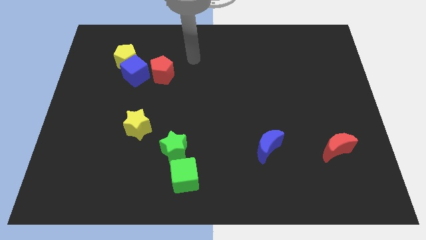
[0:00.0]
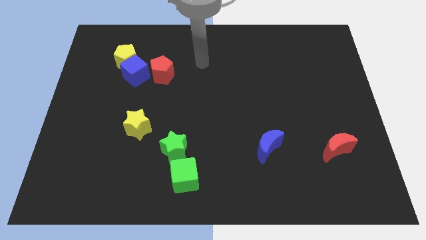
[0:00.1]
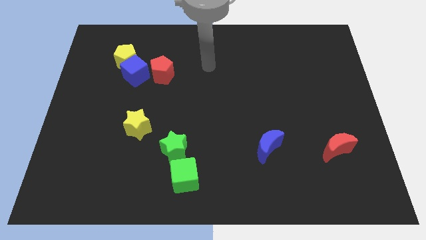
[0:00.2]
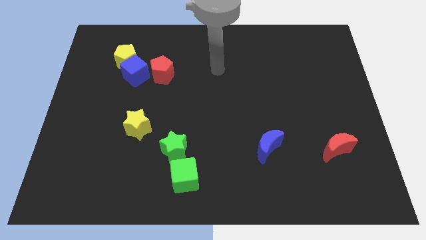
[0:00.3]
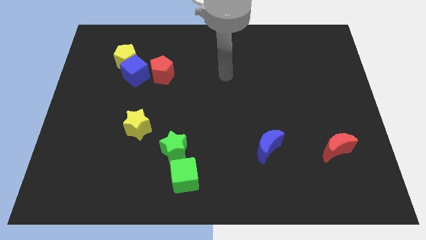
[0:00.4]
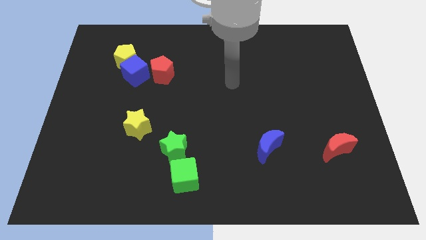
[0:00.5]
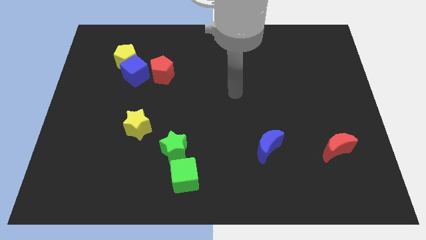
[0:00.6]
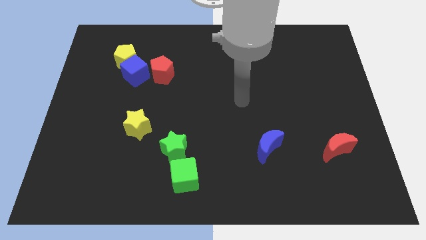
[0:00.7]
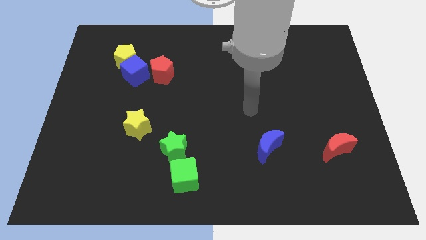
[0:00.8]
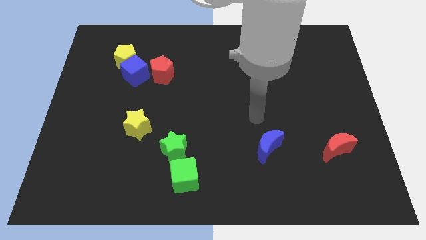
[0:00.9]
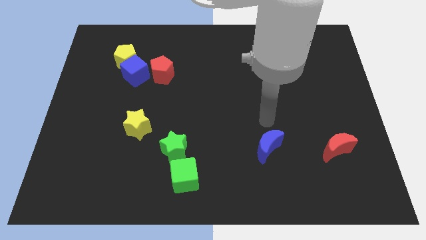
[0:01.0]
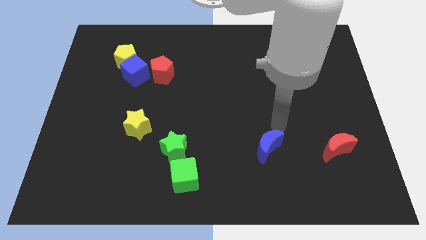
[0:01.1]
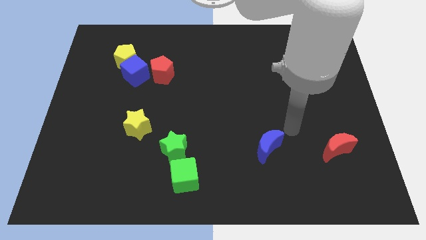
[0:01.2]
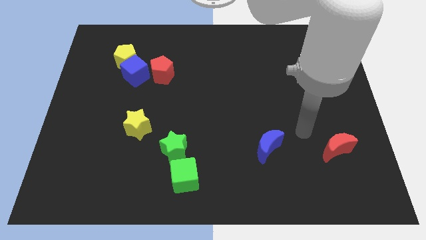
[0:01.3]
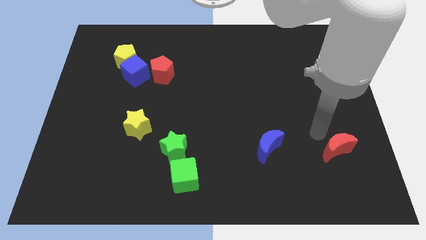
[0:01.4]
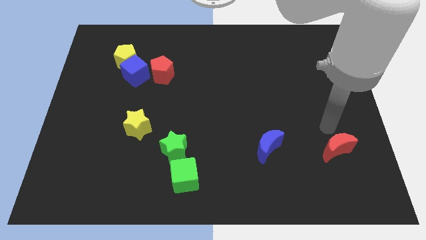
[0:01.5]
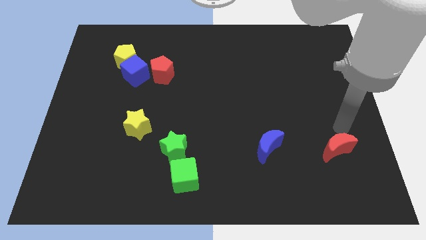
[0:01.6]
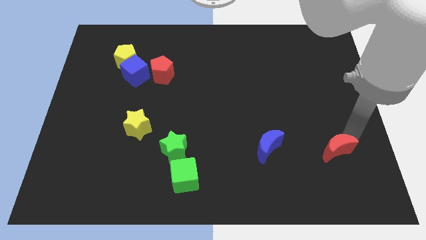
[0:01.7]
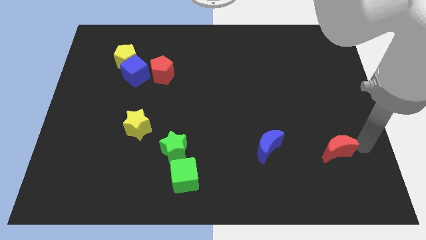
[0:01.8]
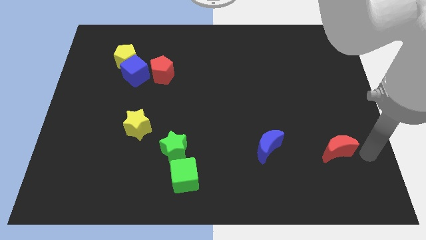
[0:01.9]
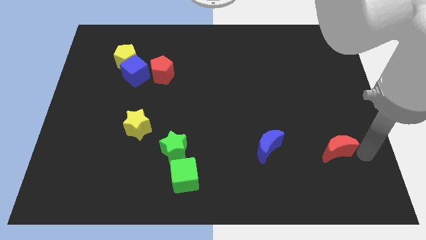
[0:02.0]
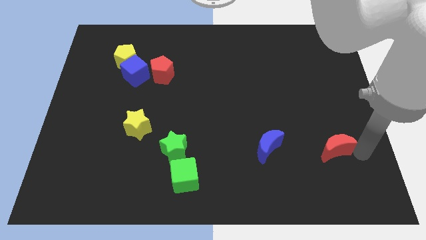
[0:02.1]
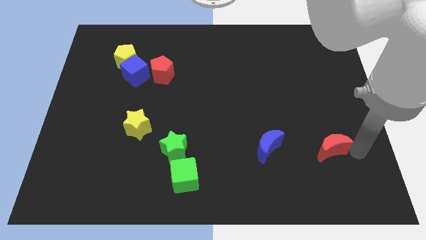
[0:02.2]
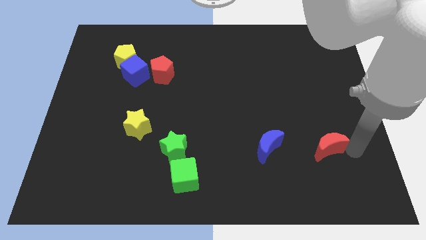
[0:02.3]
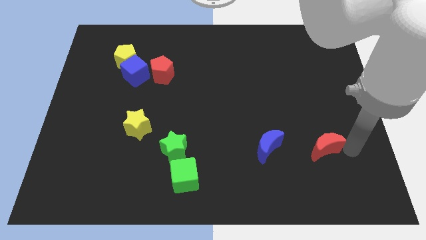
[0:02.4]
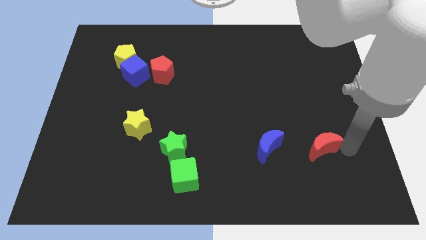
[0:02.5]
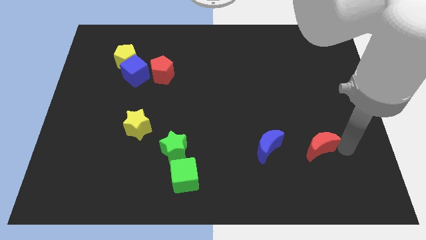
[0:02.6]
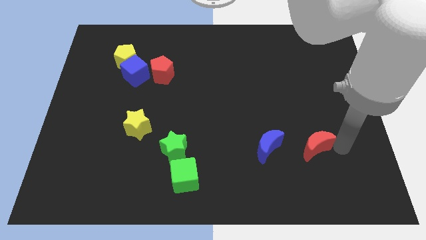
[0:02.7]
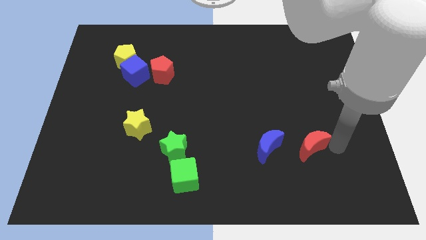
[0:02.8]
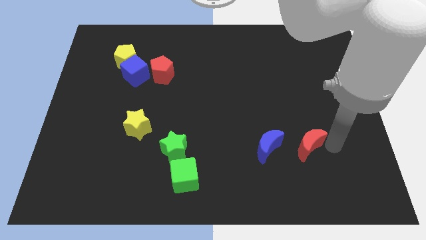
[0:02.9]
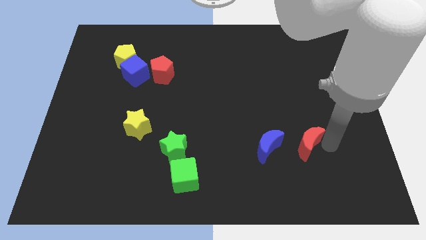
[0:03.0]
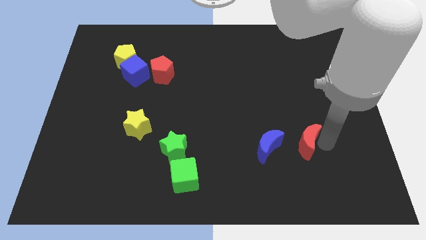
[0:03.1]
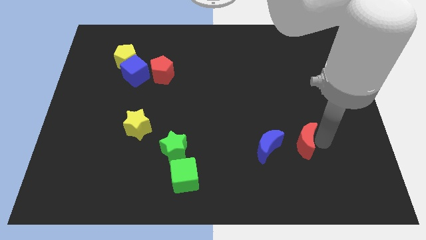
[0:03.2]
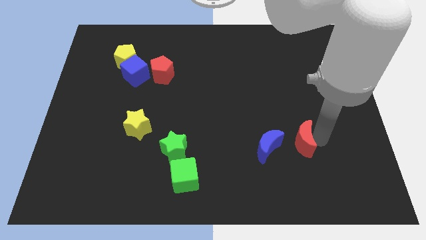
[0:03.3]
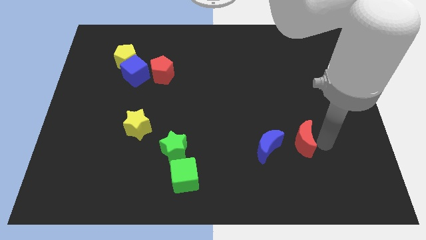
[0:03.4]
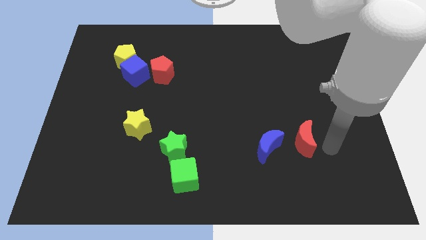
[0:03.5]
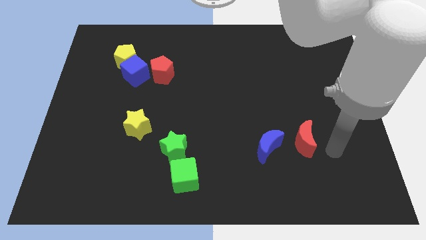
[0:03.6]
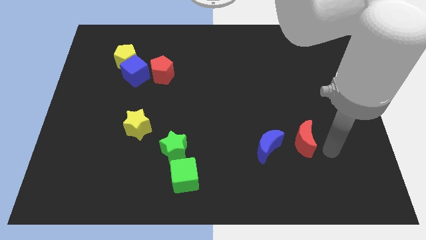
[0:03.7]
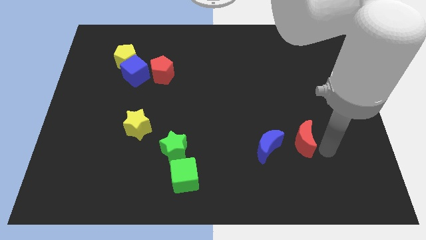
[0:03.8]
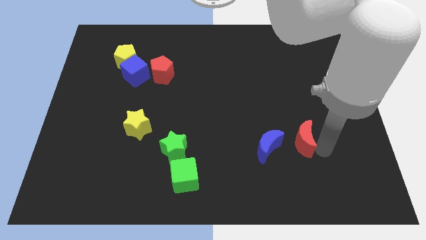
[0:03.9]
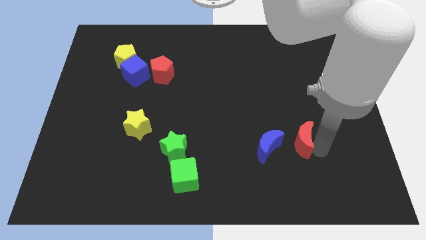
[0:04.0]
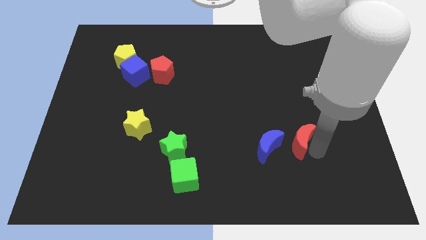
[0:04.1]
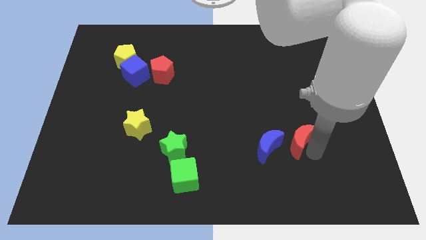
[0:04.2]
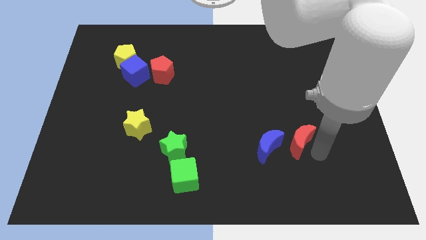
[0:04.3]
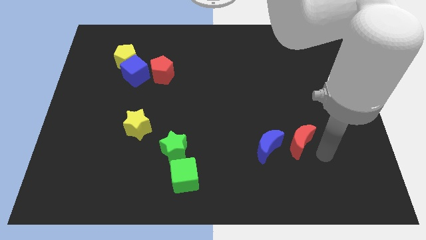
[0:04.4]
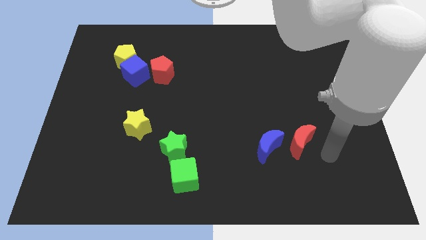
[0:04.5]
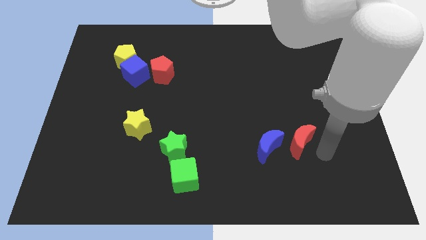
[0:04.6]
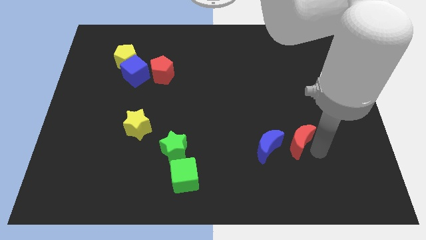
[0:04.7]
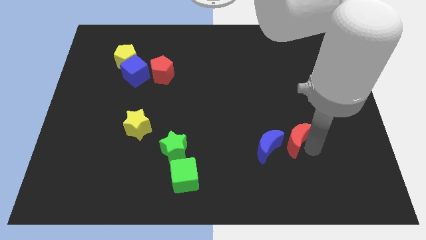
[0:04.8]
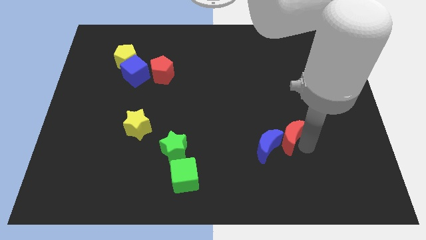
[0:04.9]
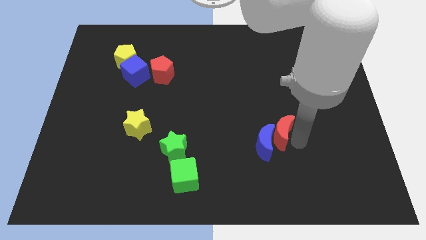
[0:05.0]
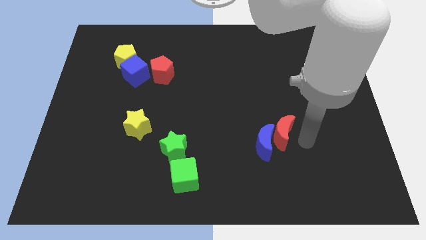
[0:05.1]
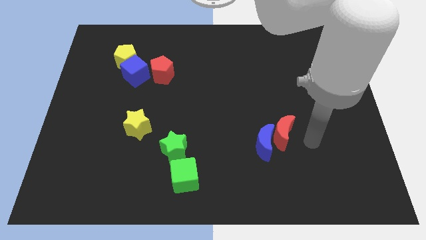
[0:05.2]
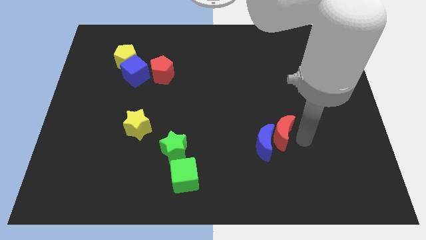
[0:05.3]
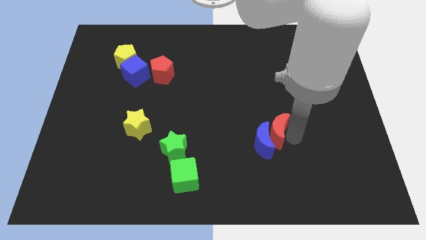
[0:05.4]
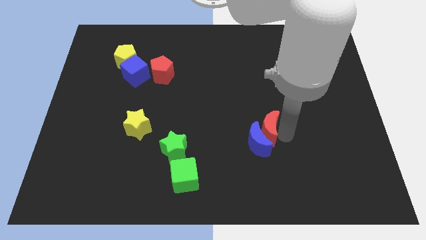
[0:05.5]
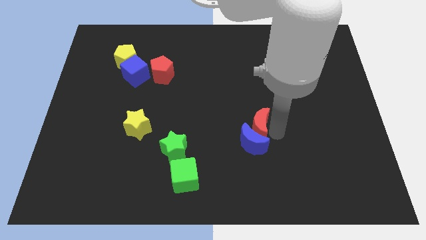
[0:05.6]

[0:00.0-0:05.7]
slide the red moon diagonally up and to the left of the blue moon

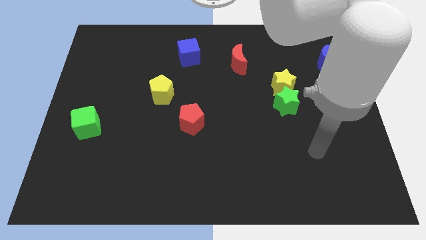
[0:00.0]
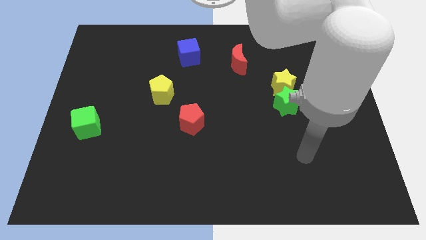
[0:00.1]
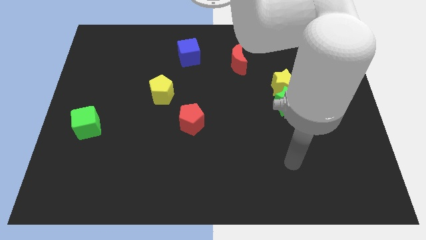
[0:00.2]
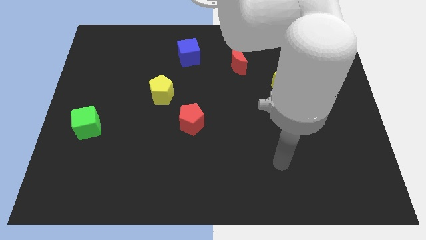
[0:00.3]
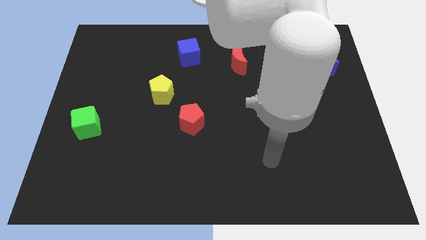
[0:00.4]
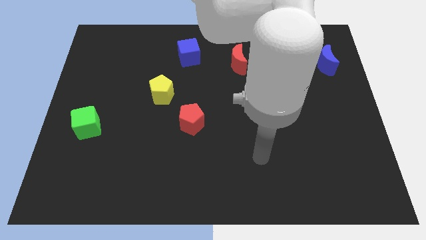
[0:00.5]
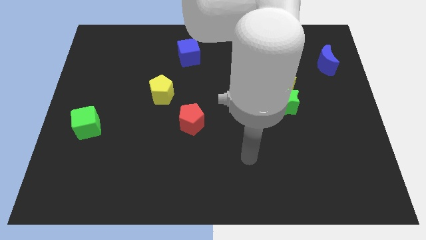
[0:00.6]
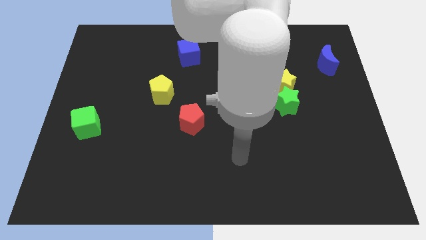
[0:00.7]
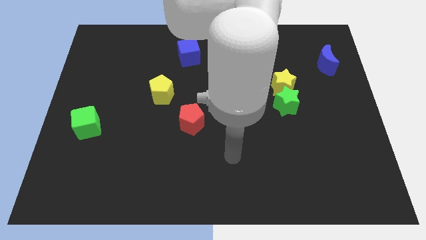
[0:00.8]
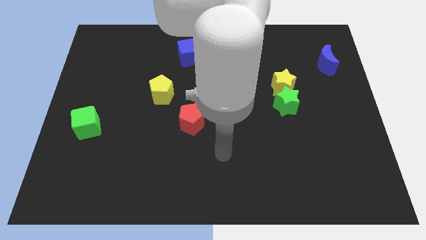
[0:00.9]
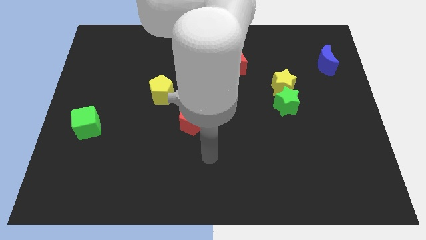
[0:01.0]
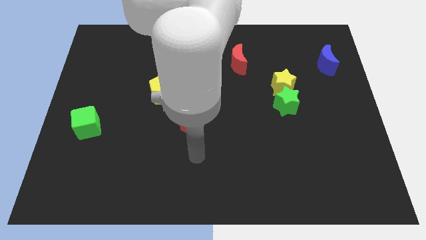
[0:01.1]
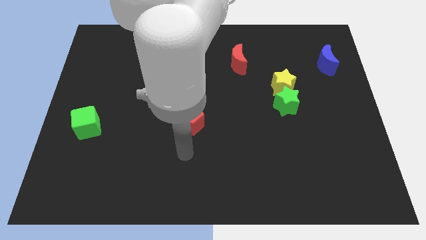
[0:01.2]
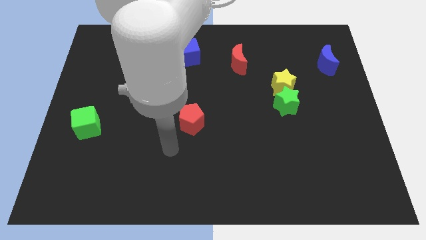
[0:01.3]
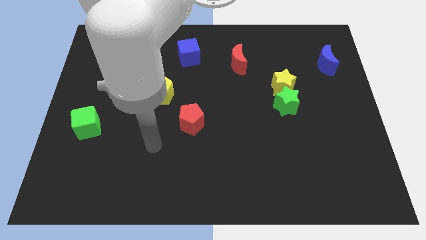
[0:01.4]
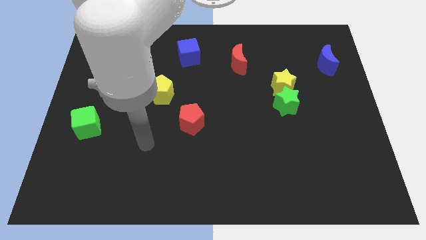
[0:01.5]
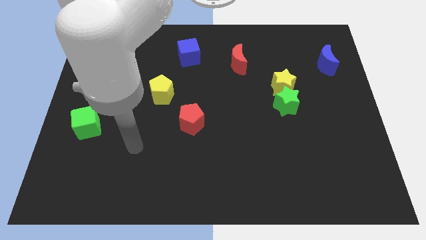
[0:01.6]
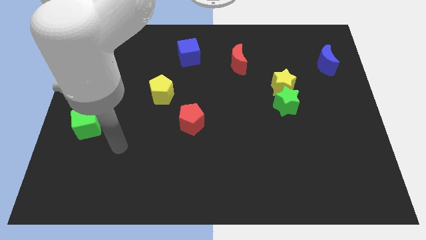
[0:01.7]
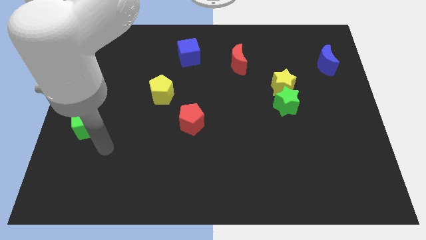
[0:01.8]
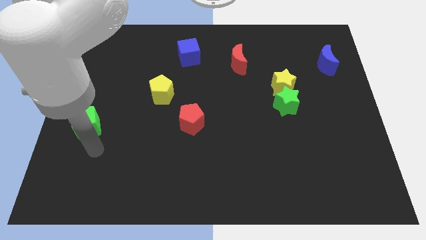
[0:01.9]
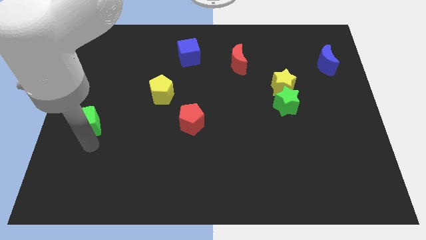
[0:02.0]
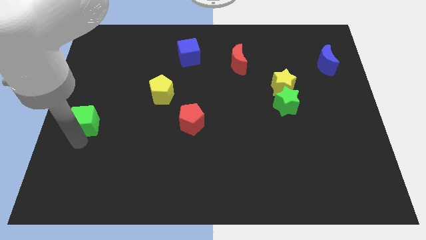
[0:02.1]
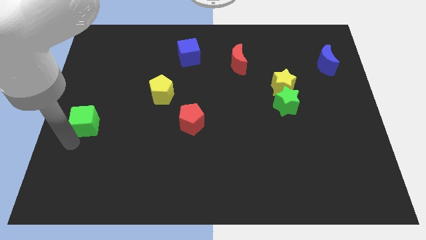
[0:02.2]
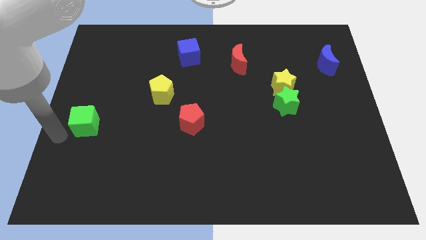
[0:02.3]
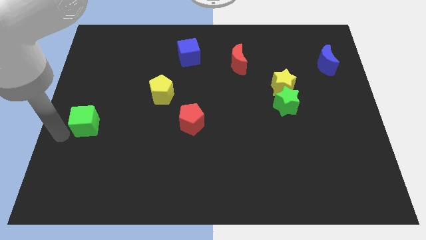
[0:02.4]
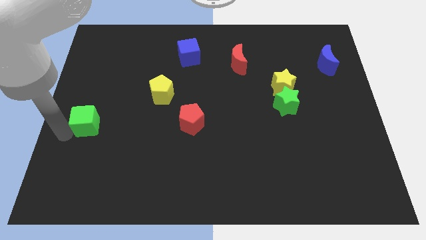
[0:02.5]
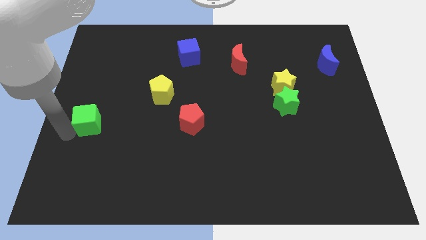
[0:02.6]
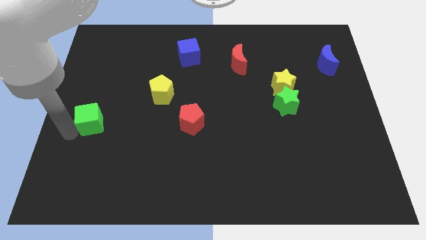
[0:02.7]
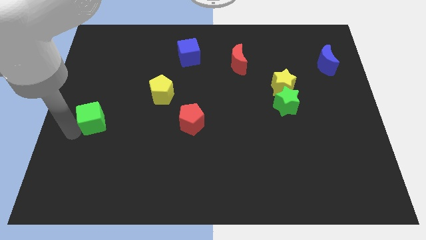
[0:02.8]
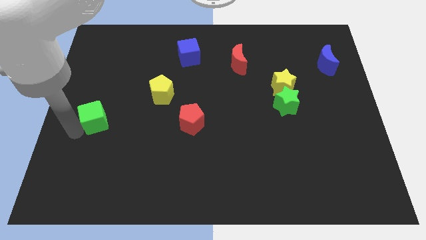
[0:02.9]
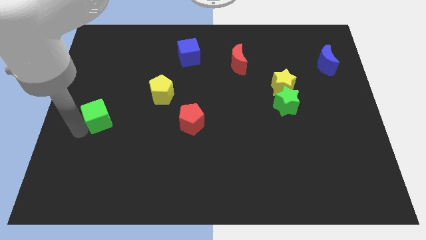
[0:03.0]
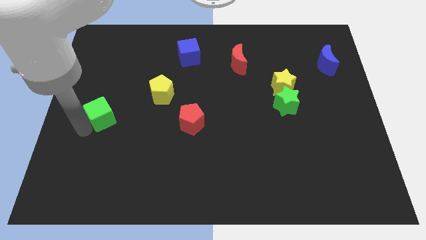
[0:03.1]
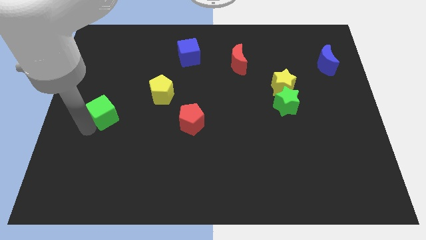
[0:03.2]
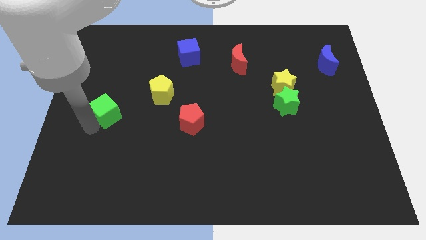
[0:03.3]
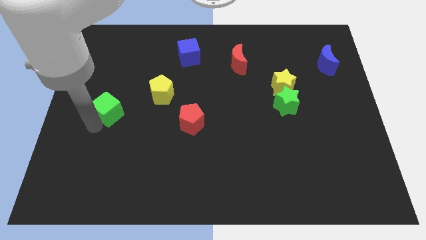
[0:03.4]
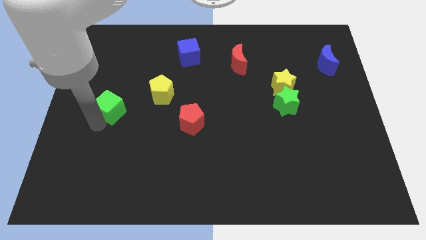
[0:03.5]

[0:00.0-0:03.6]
slide the green cube just left of the yellow pentagon
